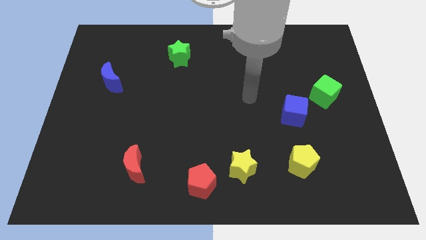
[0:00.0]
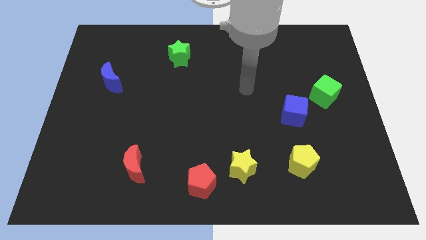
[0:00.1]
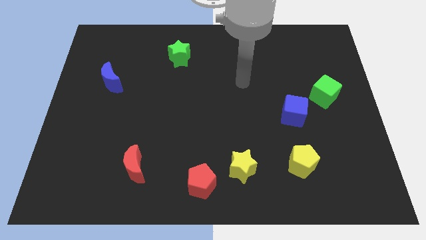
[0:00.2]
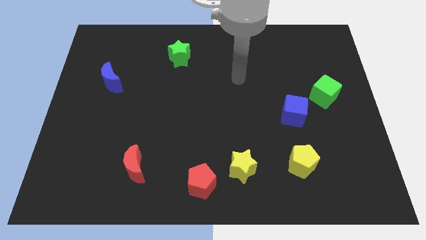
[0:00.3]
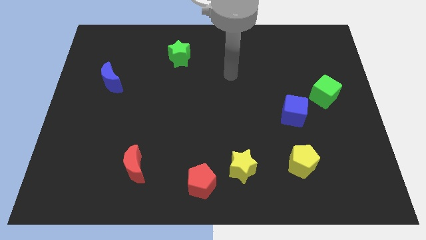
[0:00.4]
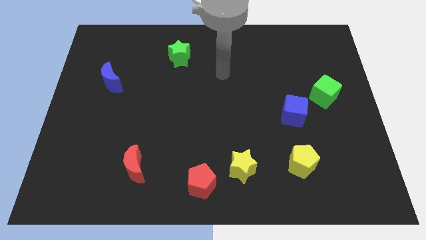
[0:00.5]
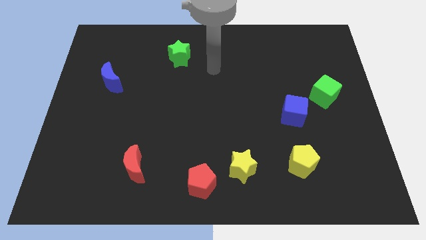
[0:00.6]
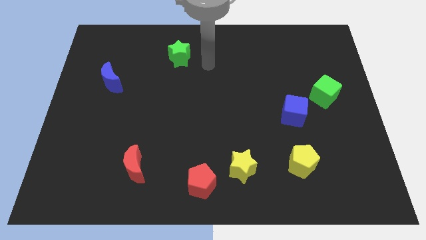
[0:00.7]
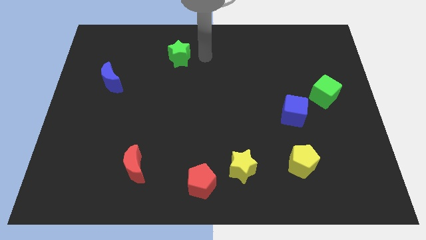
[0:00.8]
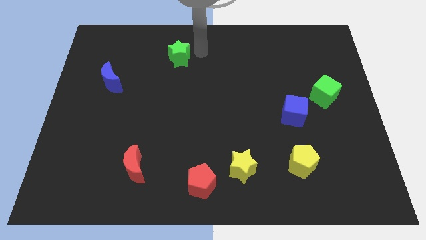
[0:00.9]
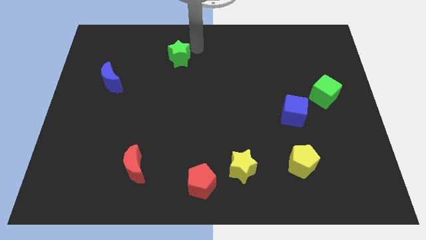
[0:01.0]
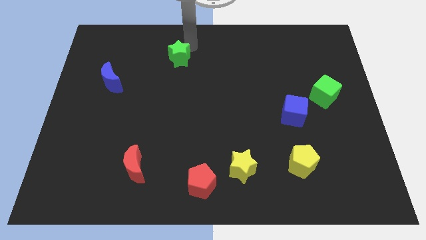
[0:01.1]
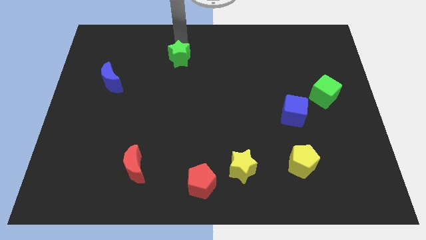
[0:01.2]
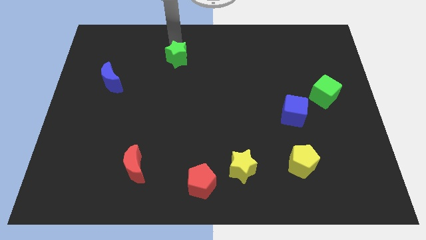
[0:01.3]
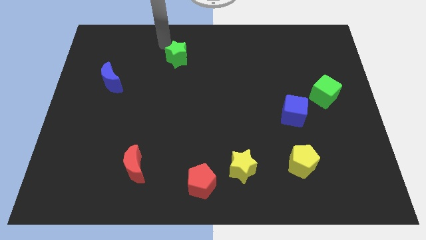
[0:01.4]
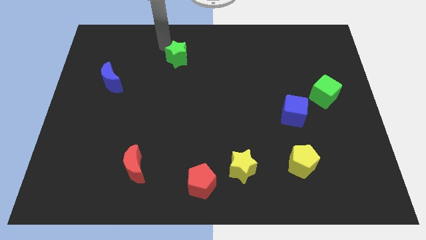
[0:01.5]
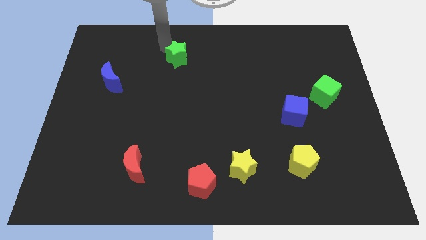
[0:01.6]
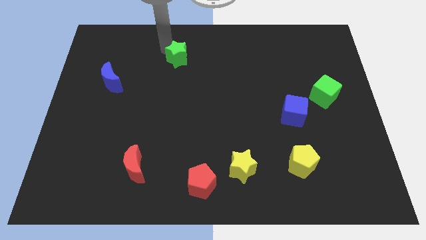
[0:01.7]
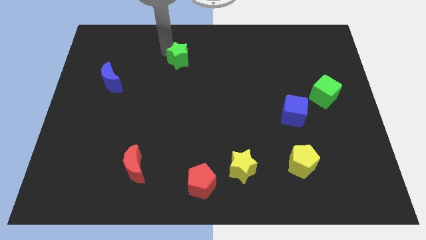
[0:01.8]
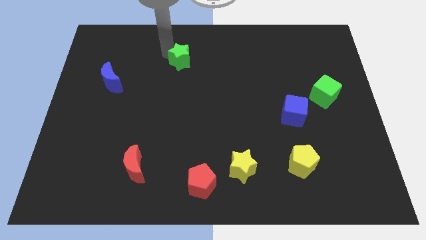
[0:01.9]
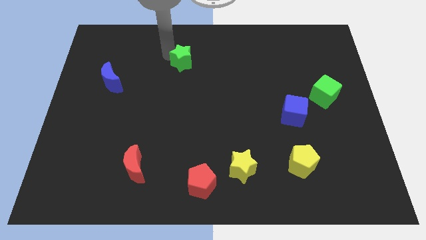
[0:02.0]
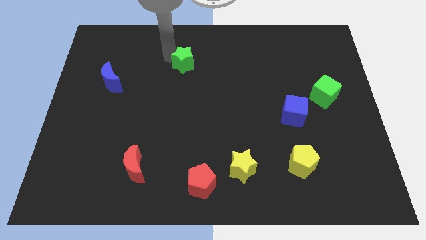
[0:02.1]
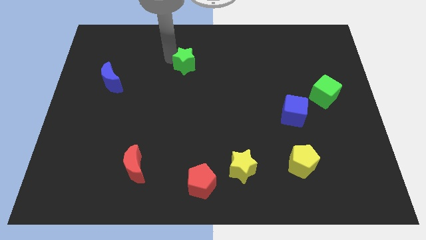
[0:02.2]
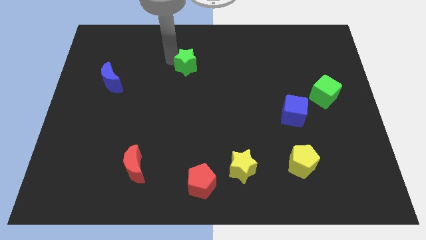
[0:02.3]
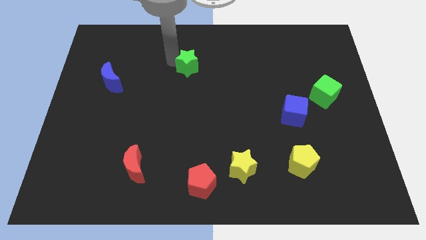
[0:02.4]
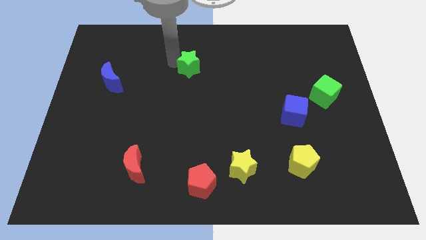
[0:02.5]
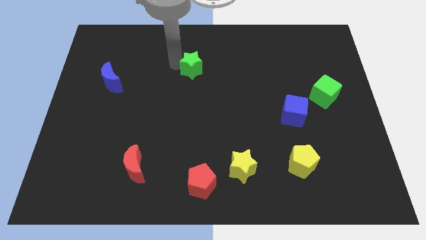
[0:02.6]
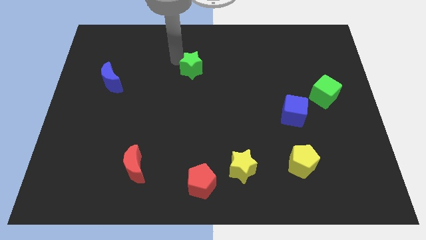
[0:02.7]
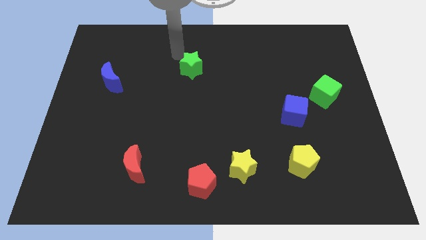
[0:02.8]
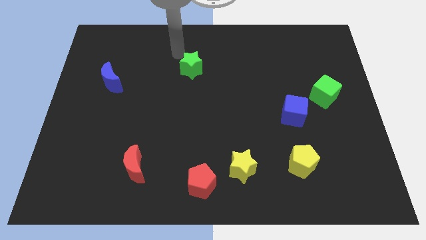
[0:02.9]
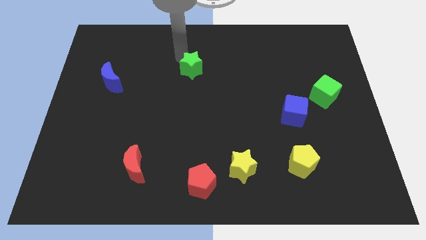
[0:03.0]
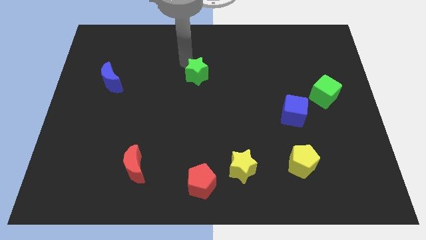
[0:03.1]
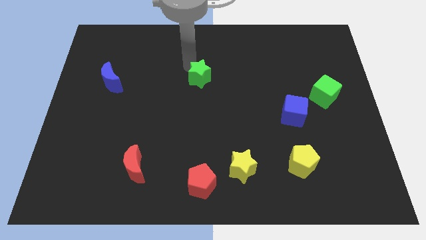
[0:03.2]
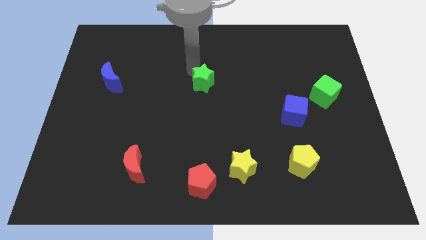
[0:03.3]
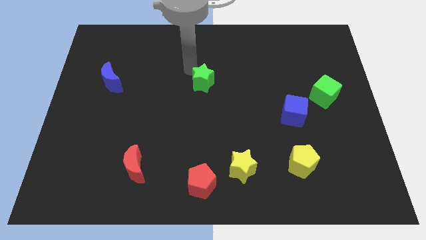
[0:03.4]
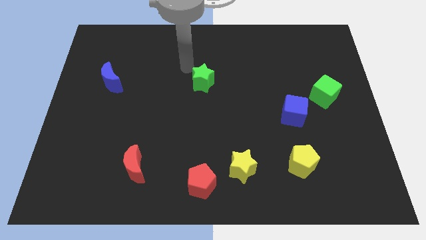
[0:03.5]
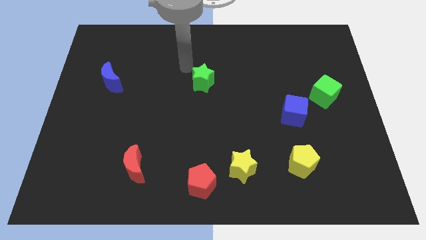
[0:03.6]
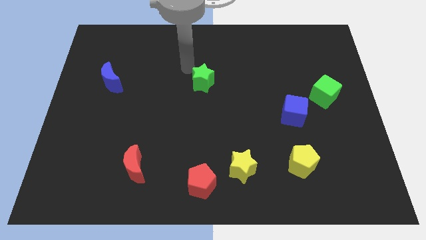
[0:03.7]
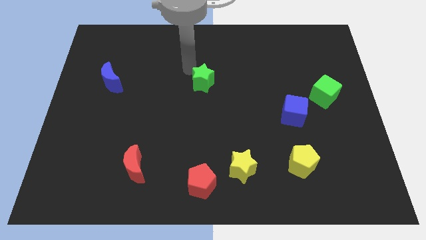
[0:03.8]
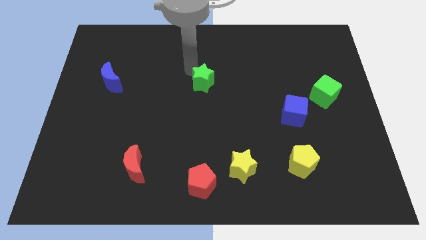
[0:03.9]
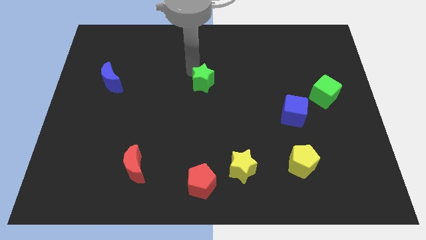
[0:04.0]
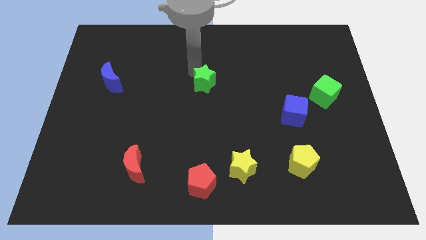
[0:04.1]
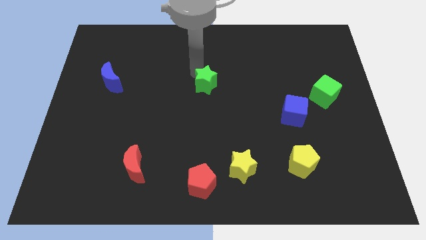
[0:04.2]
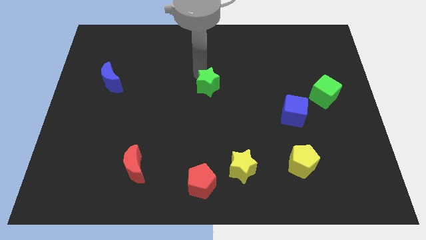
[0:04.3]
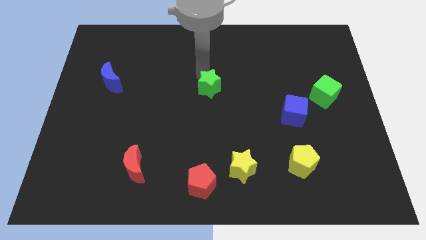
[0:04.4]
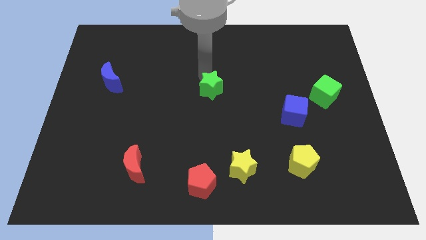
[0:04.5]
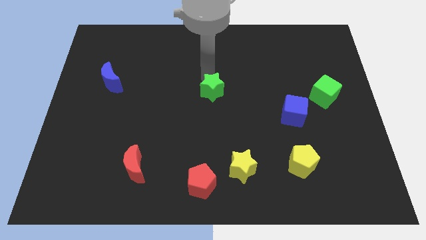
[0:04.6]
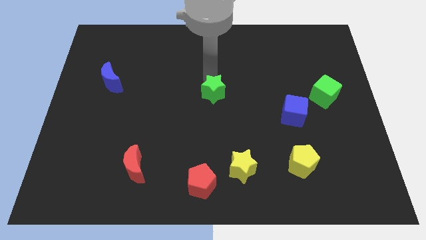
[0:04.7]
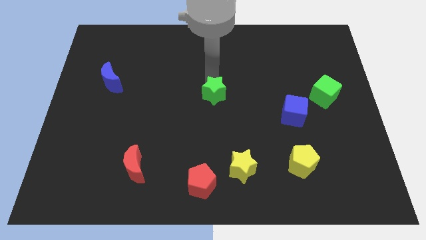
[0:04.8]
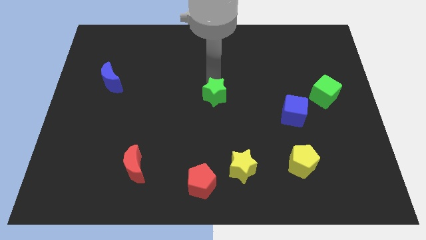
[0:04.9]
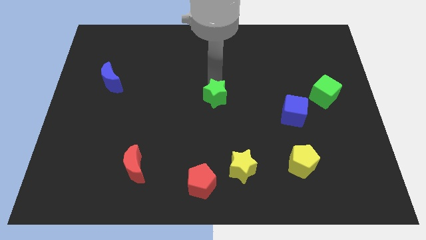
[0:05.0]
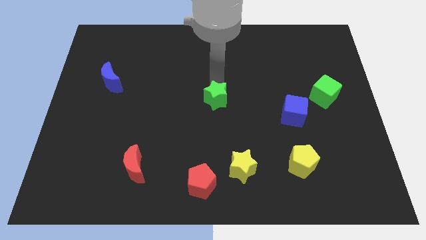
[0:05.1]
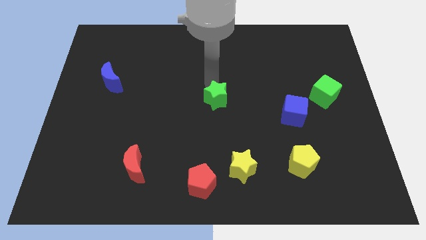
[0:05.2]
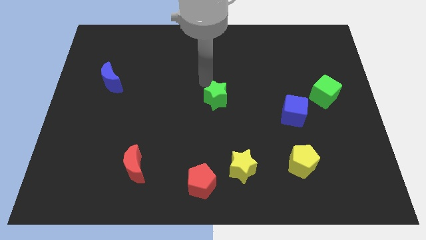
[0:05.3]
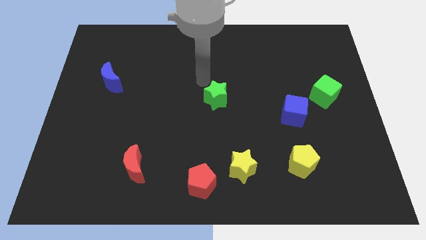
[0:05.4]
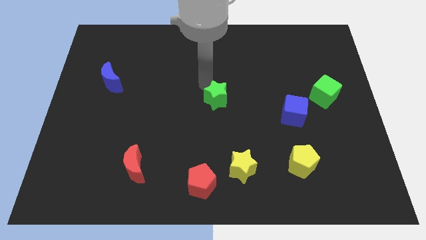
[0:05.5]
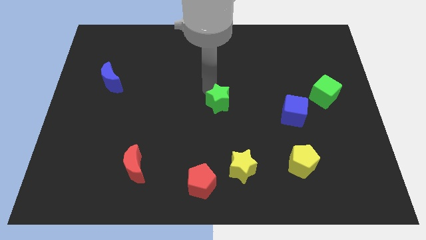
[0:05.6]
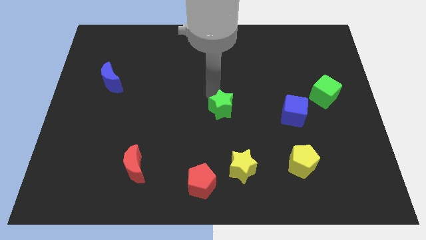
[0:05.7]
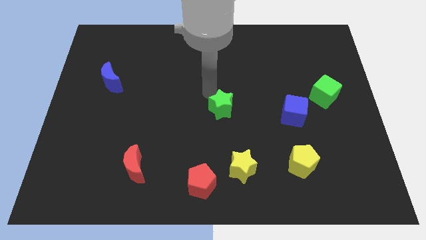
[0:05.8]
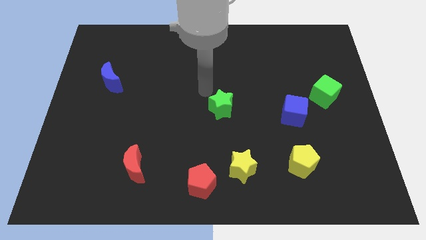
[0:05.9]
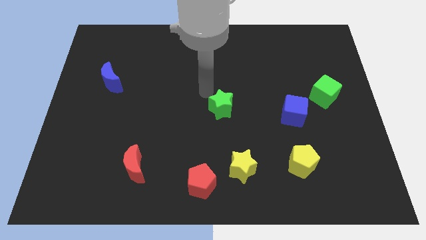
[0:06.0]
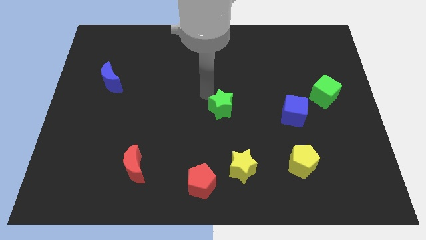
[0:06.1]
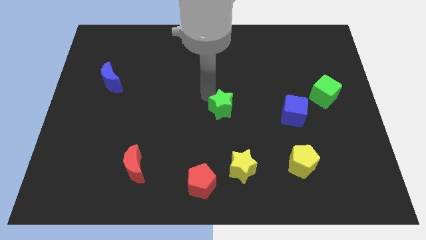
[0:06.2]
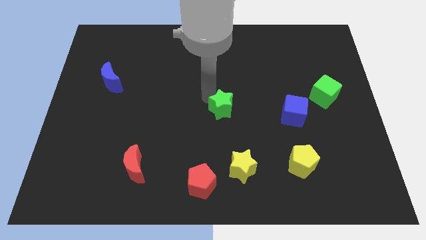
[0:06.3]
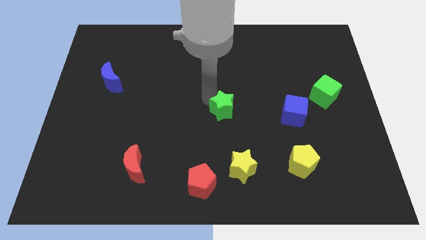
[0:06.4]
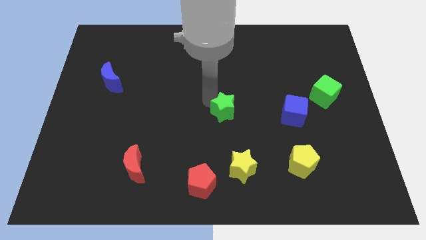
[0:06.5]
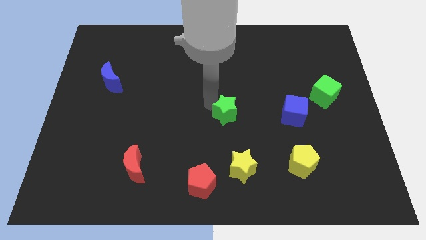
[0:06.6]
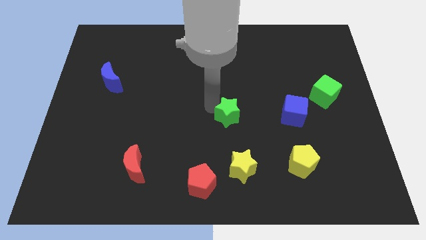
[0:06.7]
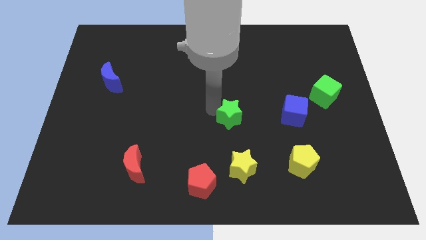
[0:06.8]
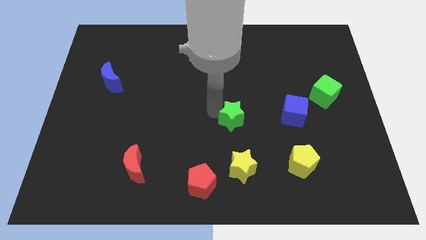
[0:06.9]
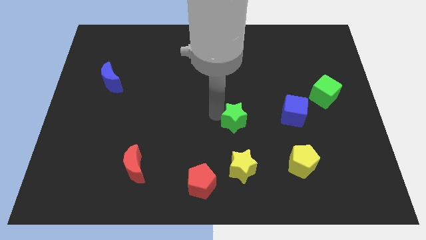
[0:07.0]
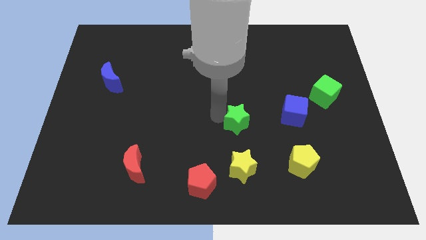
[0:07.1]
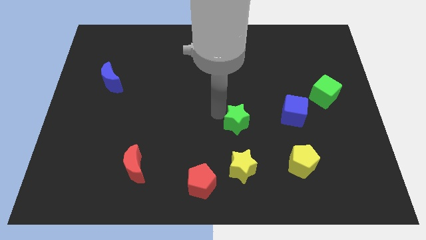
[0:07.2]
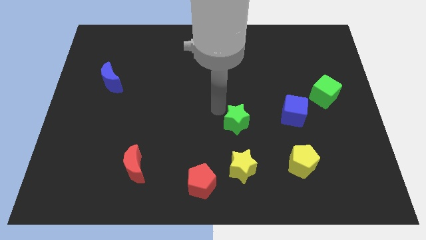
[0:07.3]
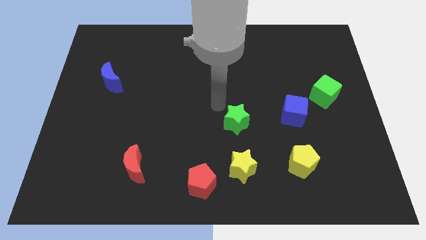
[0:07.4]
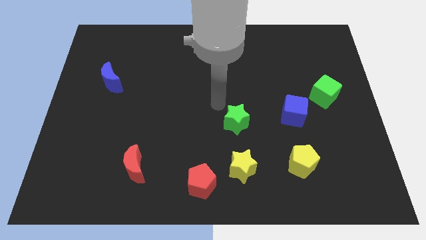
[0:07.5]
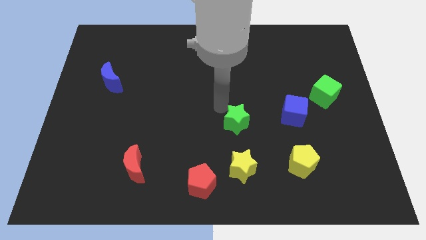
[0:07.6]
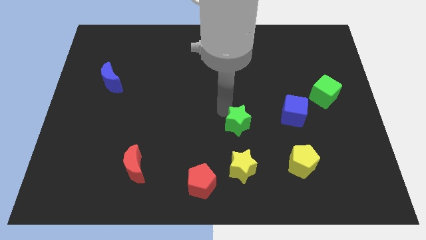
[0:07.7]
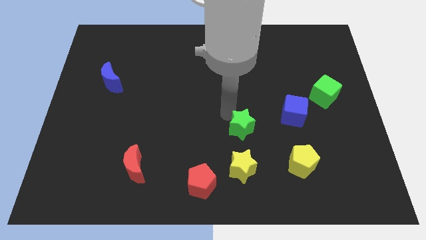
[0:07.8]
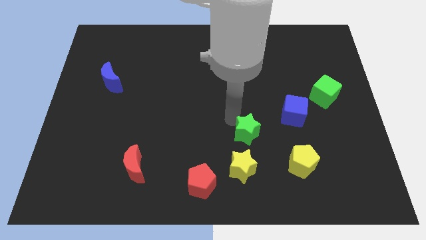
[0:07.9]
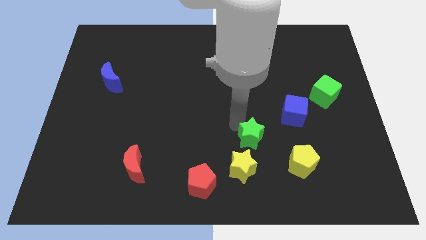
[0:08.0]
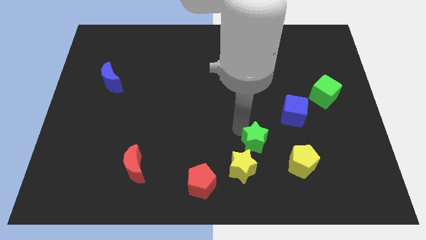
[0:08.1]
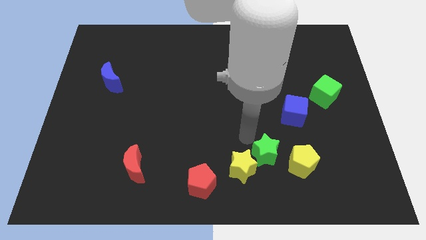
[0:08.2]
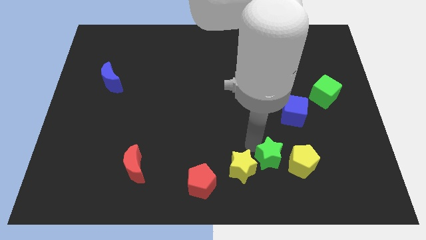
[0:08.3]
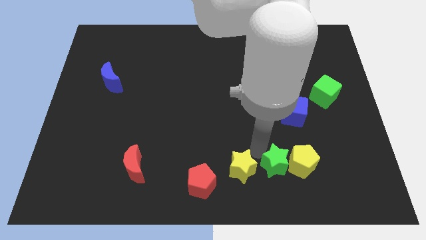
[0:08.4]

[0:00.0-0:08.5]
slide the green star close to the yellow pentagon
